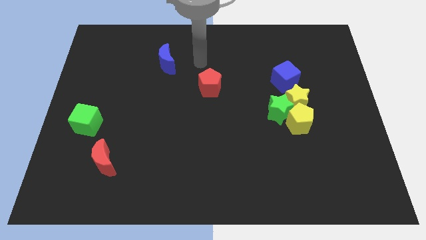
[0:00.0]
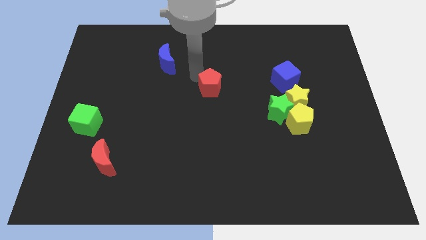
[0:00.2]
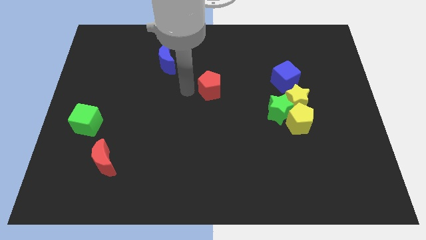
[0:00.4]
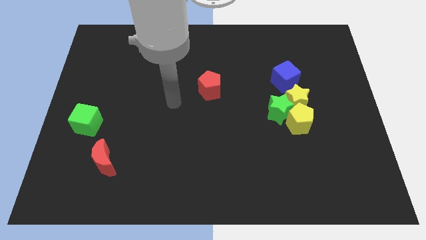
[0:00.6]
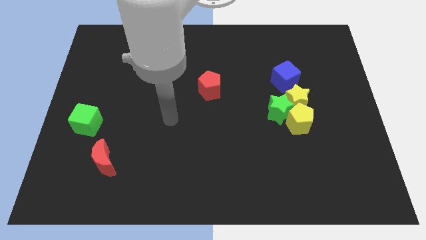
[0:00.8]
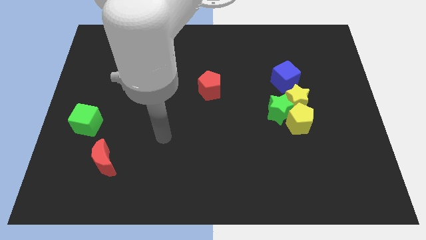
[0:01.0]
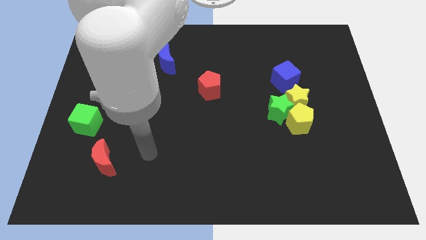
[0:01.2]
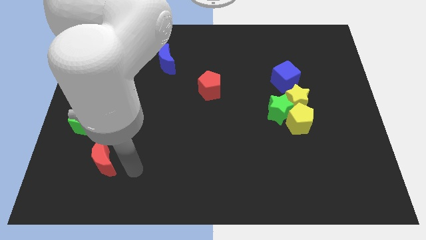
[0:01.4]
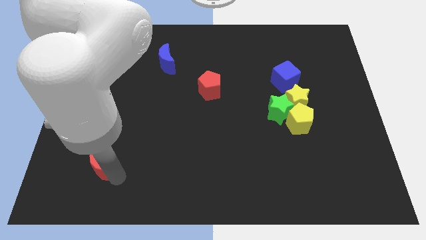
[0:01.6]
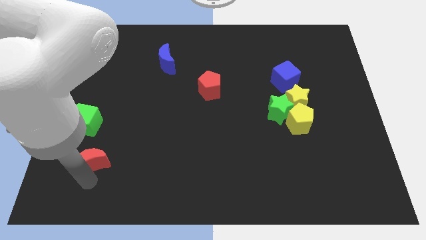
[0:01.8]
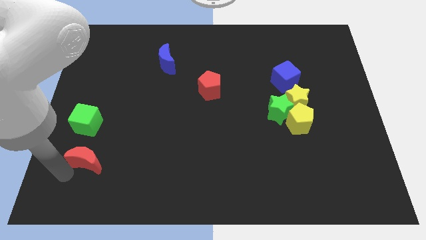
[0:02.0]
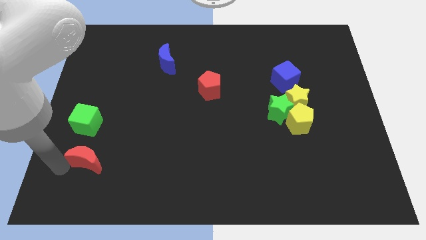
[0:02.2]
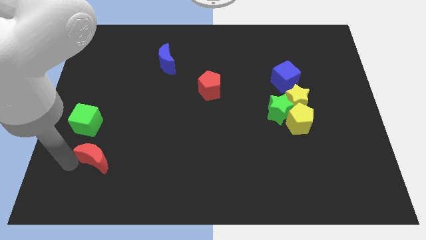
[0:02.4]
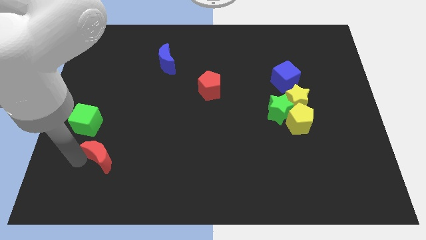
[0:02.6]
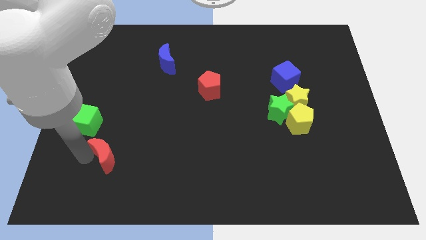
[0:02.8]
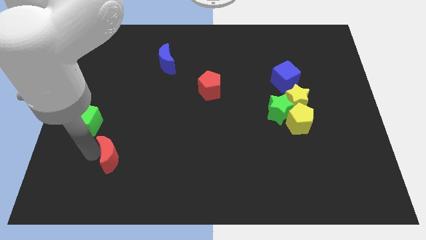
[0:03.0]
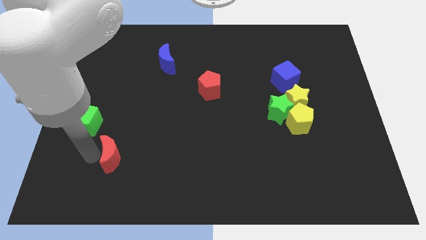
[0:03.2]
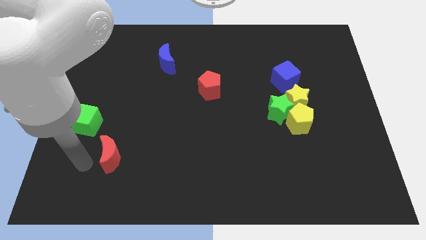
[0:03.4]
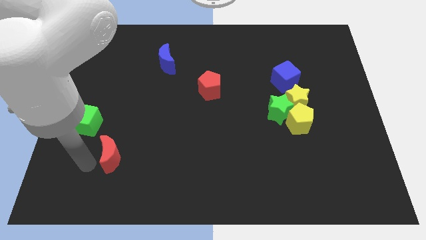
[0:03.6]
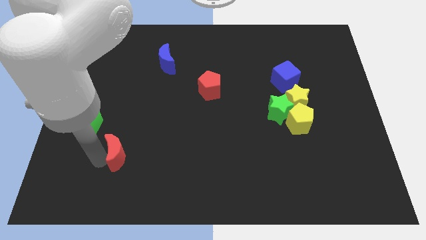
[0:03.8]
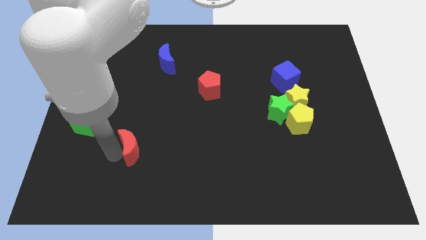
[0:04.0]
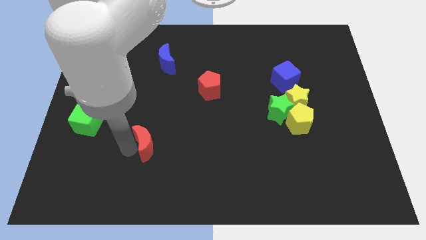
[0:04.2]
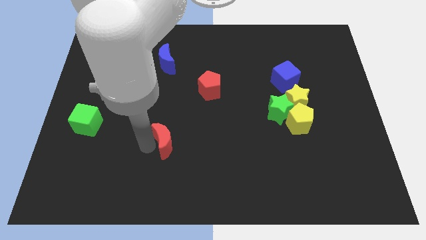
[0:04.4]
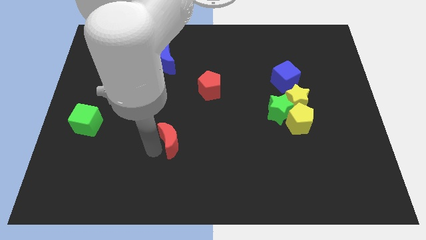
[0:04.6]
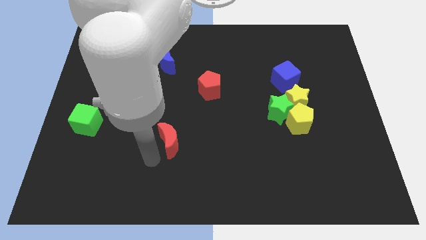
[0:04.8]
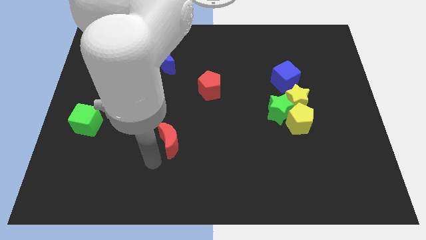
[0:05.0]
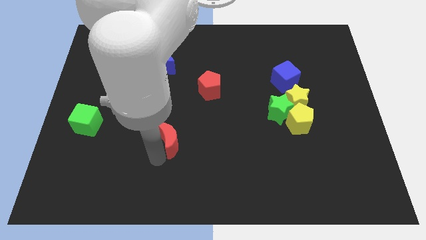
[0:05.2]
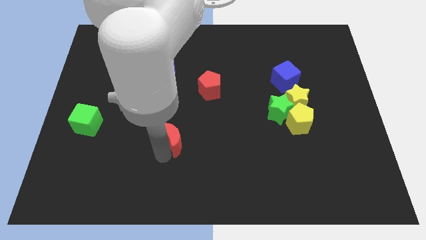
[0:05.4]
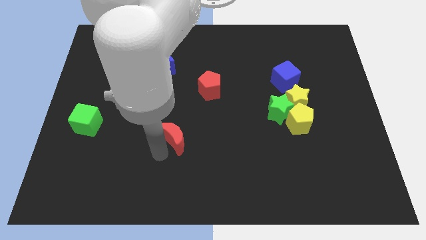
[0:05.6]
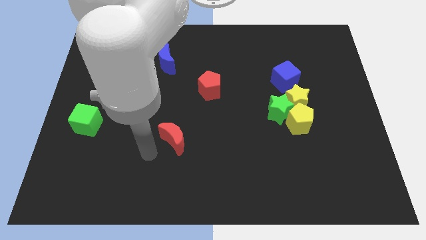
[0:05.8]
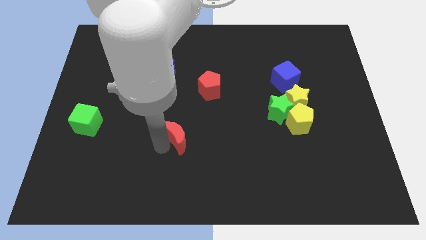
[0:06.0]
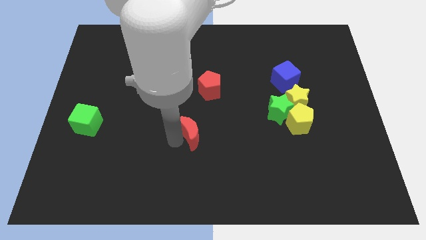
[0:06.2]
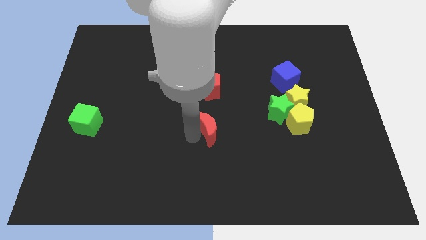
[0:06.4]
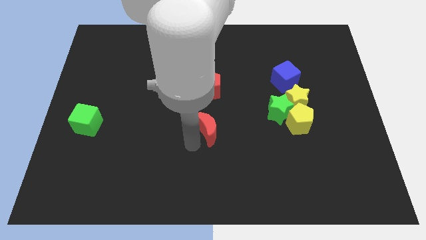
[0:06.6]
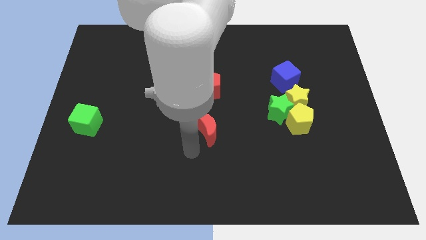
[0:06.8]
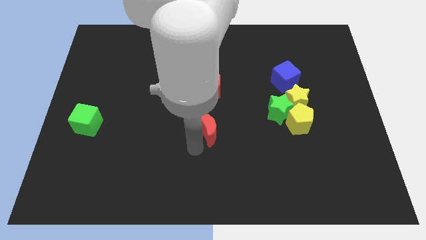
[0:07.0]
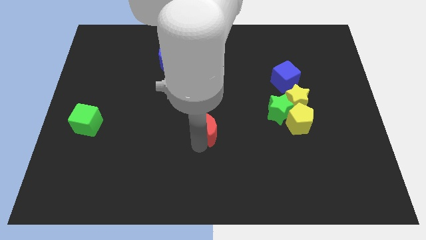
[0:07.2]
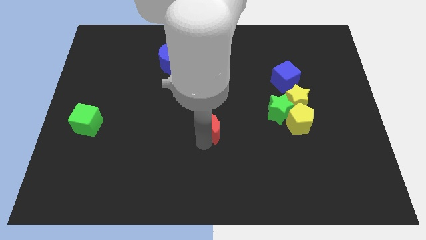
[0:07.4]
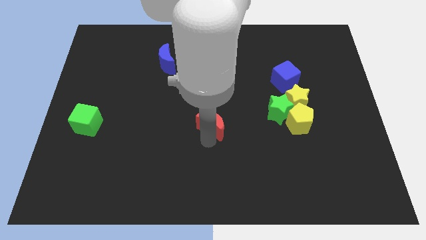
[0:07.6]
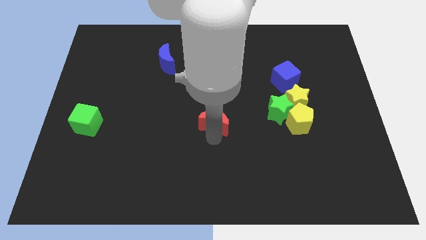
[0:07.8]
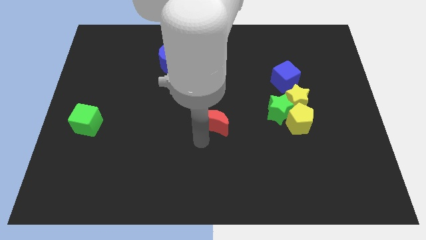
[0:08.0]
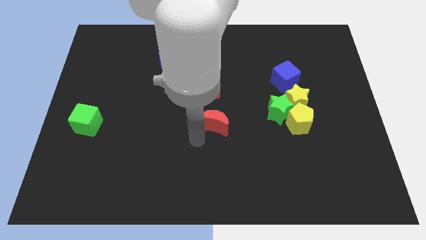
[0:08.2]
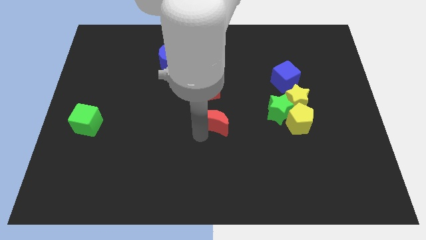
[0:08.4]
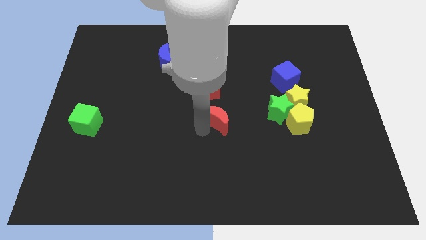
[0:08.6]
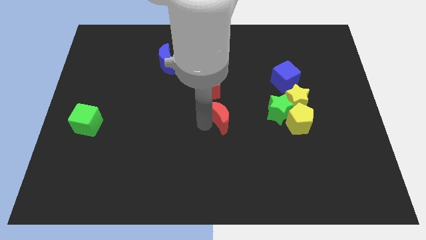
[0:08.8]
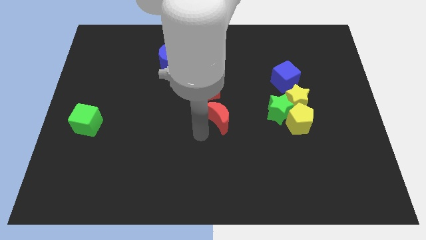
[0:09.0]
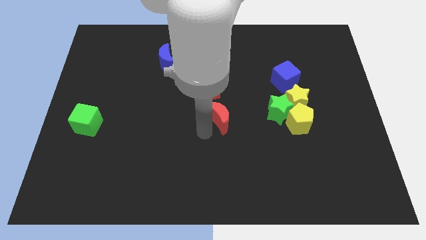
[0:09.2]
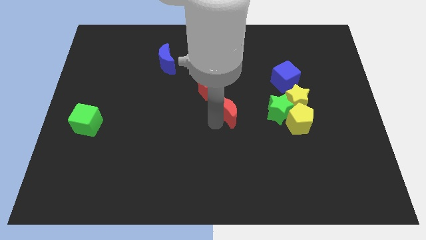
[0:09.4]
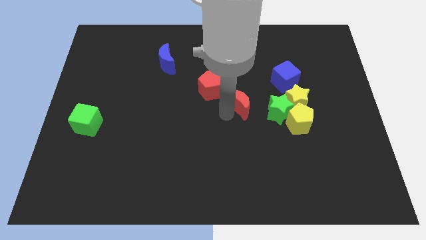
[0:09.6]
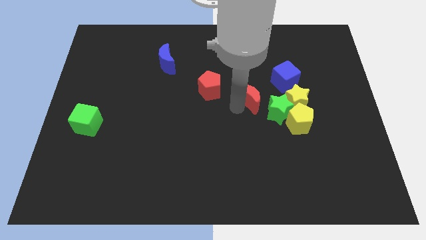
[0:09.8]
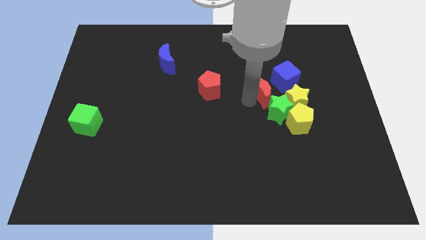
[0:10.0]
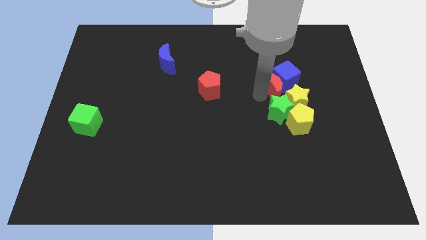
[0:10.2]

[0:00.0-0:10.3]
move the red moon next to the blue cube

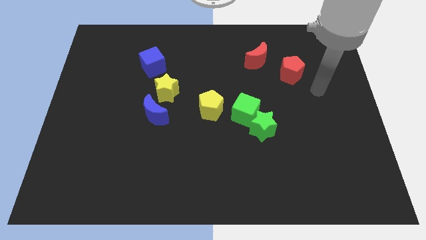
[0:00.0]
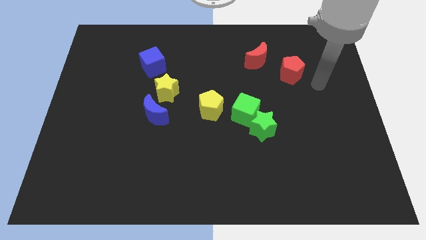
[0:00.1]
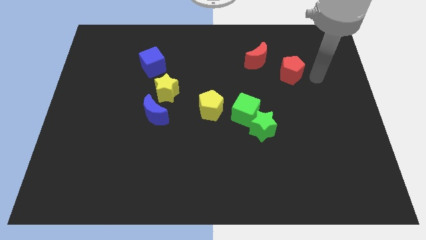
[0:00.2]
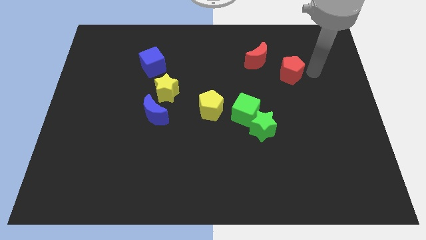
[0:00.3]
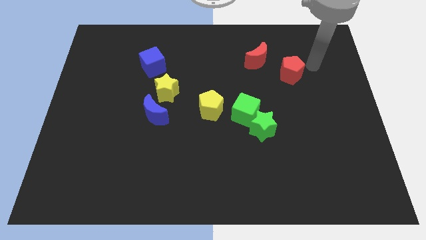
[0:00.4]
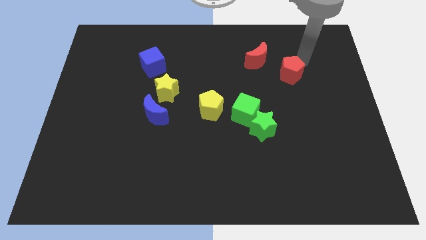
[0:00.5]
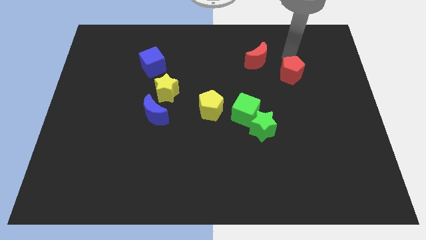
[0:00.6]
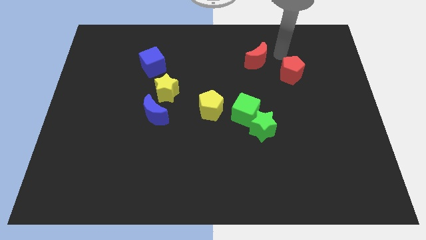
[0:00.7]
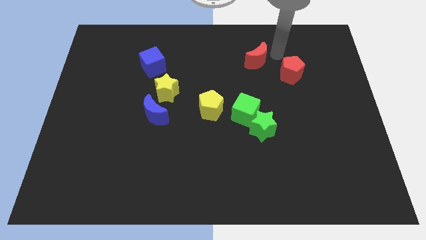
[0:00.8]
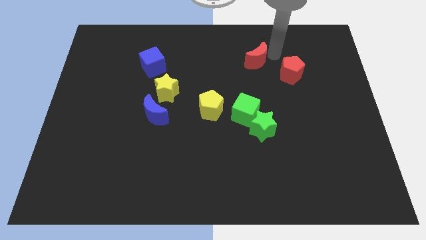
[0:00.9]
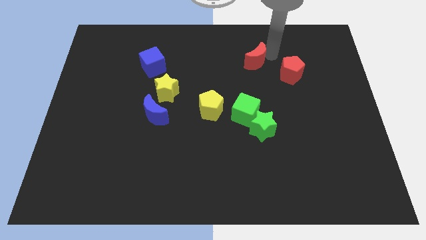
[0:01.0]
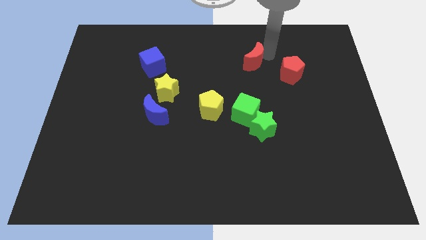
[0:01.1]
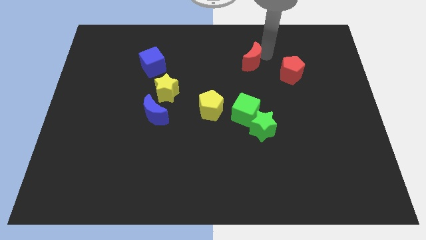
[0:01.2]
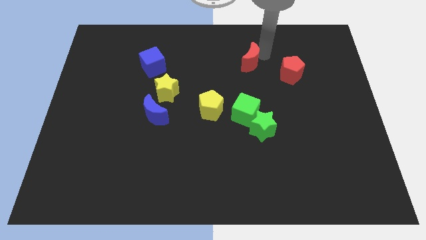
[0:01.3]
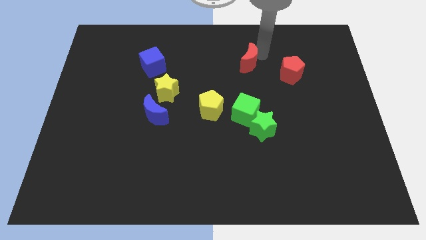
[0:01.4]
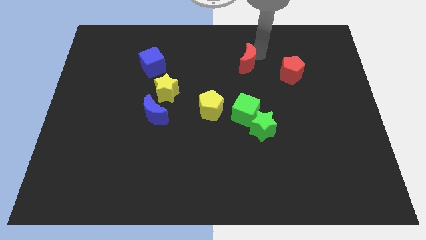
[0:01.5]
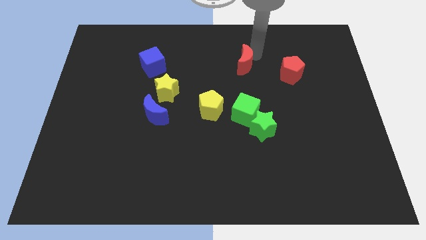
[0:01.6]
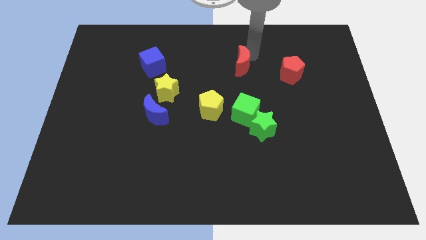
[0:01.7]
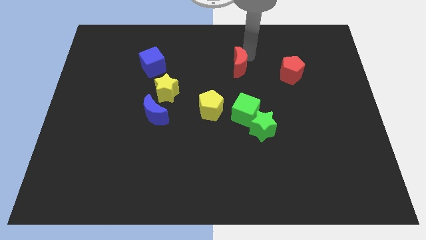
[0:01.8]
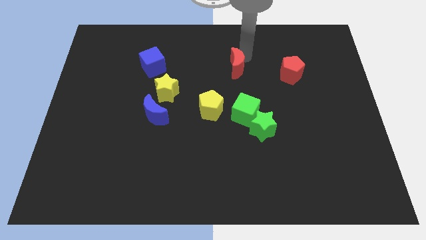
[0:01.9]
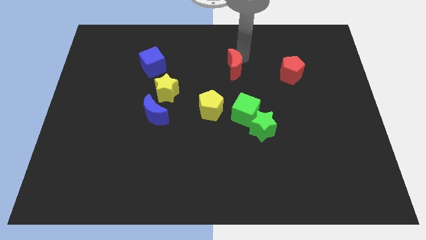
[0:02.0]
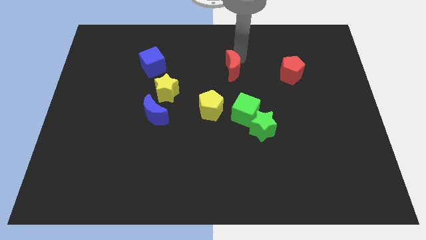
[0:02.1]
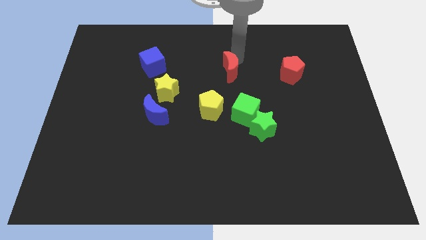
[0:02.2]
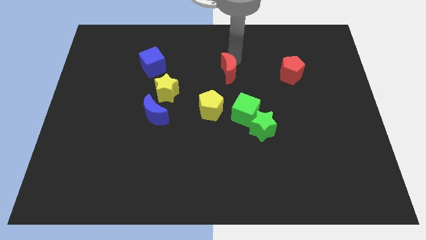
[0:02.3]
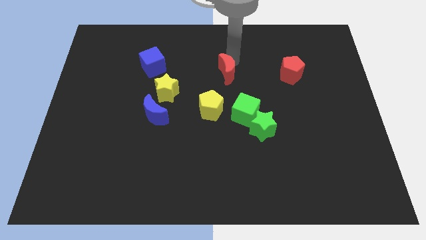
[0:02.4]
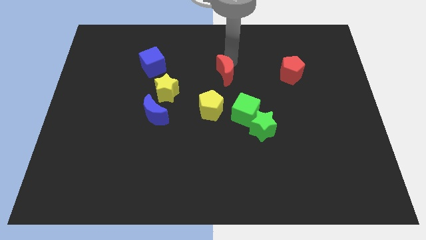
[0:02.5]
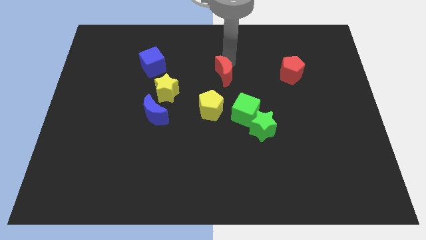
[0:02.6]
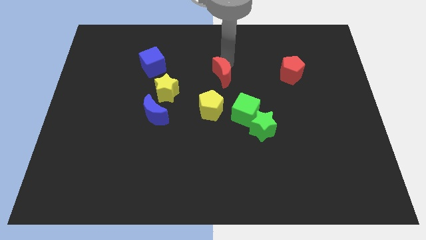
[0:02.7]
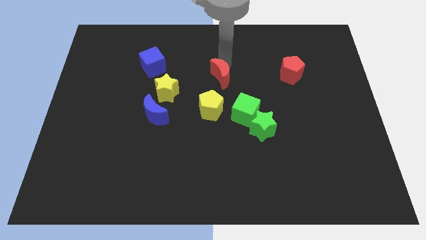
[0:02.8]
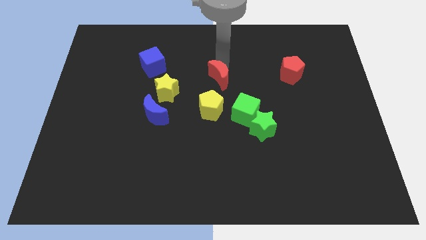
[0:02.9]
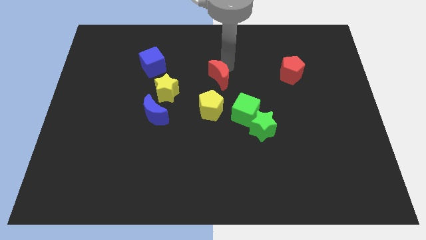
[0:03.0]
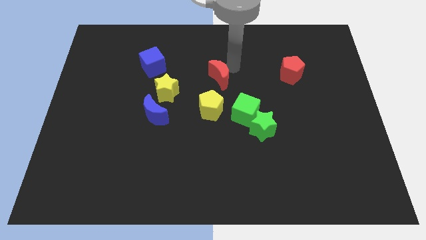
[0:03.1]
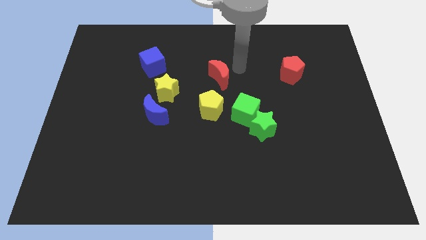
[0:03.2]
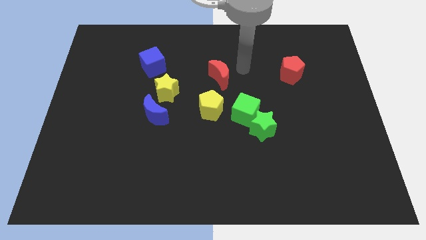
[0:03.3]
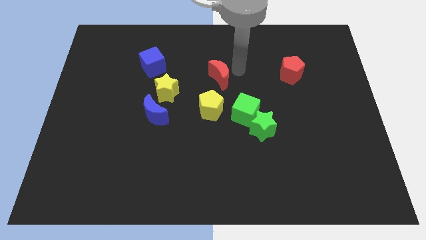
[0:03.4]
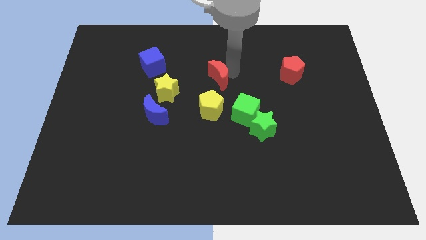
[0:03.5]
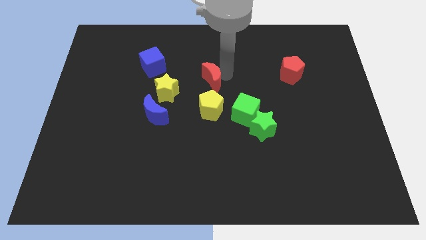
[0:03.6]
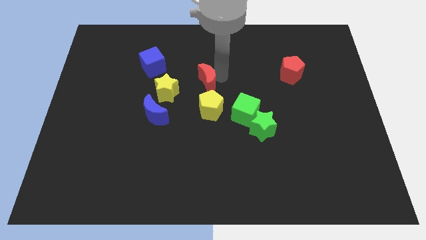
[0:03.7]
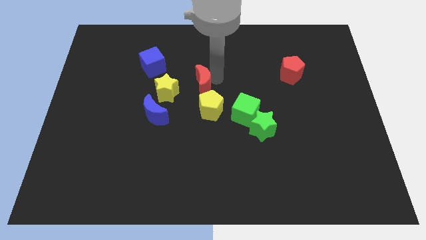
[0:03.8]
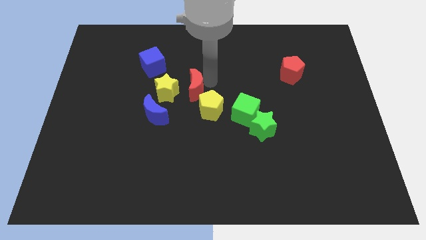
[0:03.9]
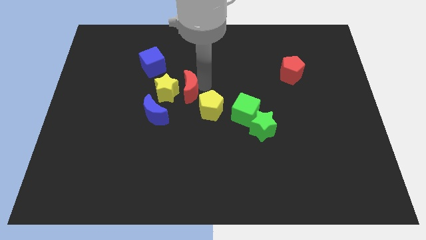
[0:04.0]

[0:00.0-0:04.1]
slide the red moon towards the yellow star
